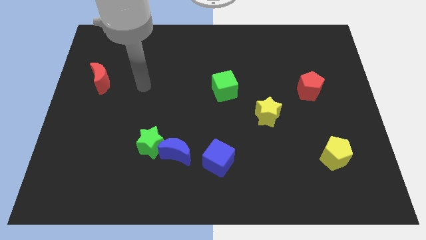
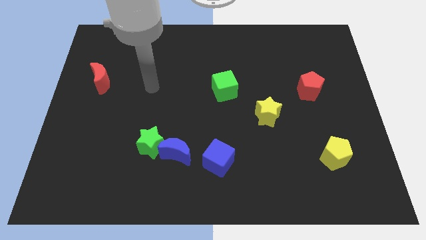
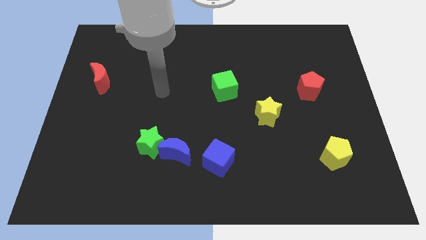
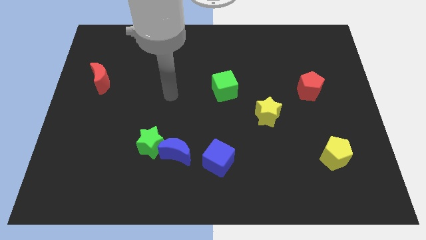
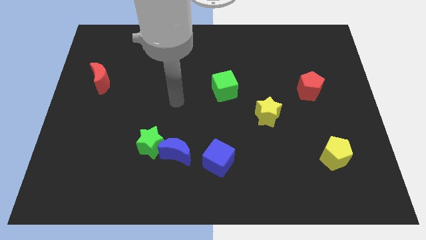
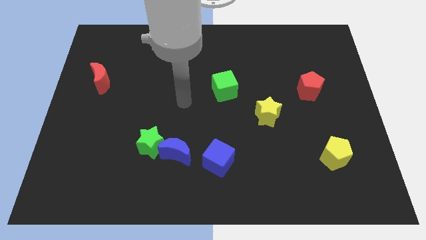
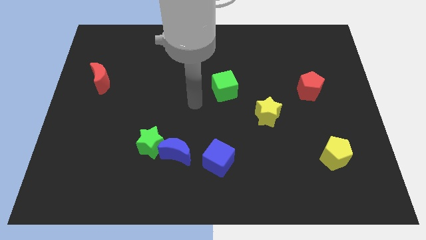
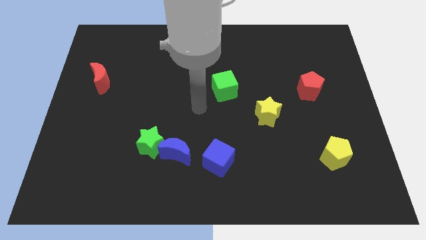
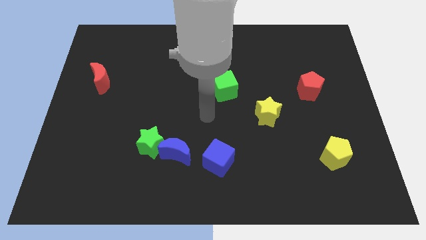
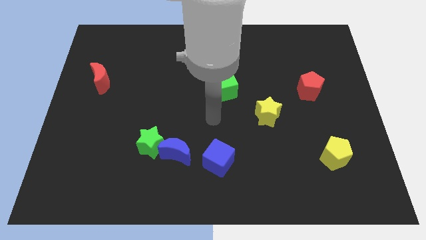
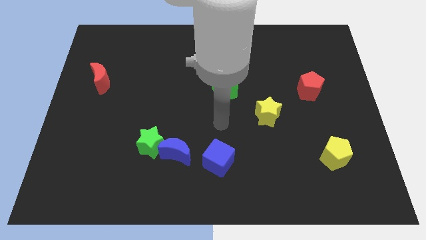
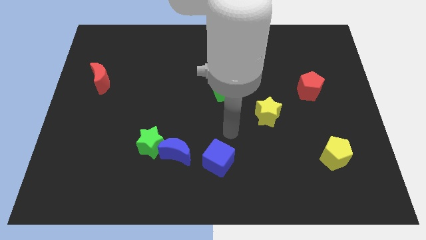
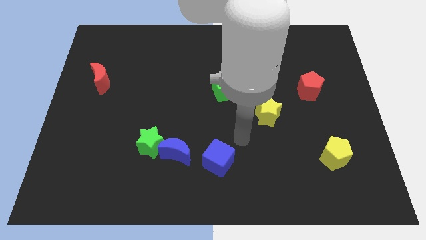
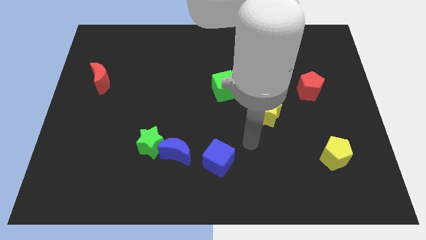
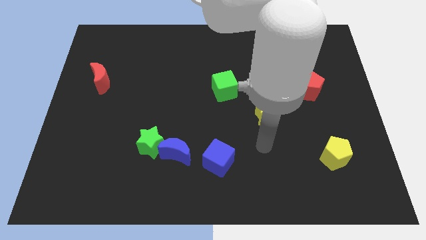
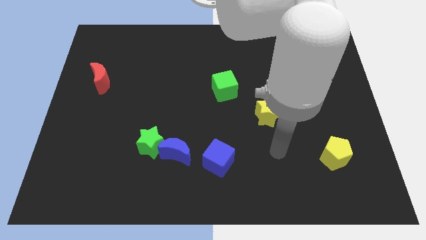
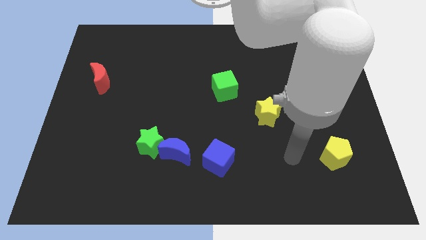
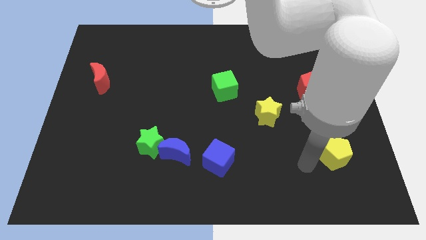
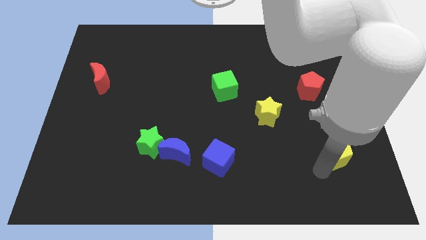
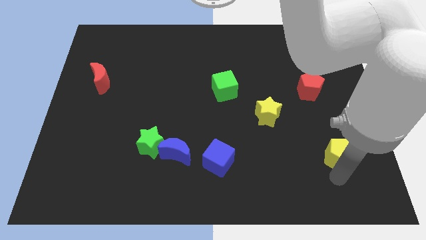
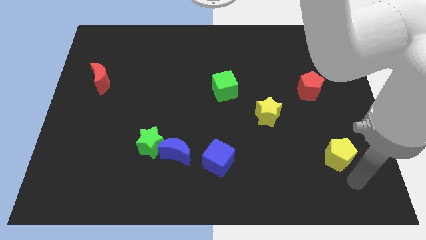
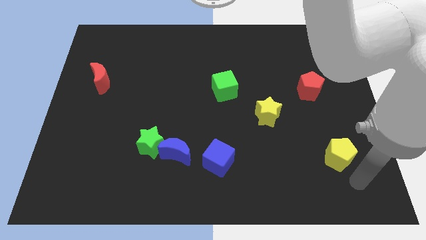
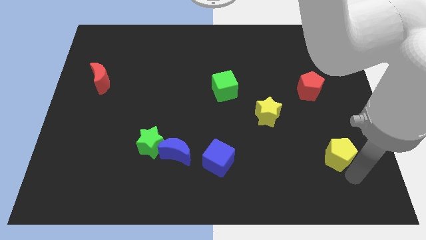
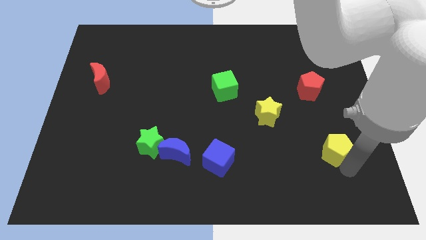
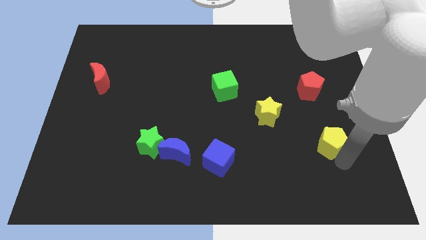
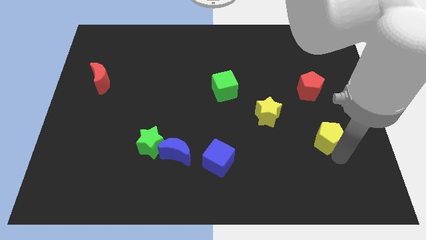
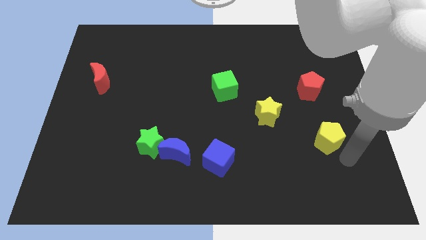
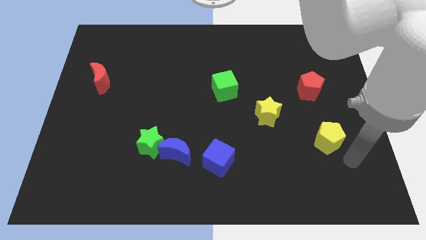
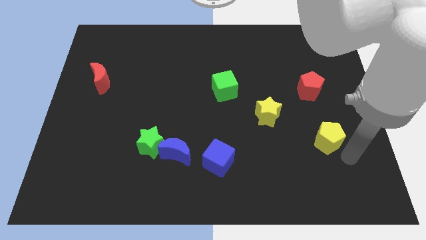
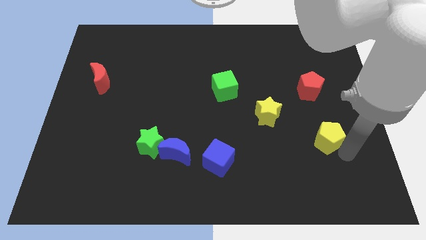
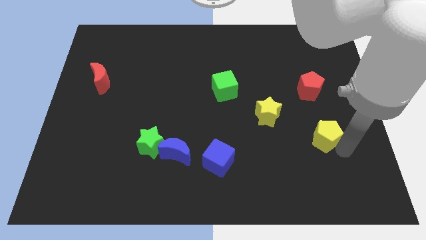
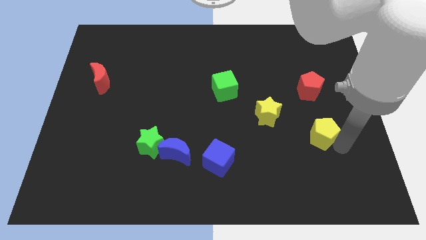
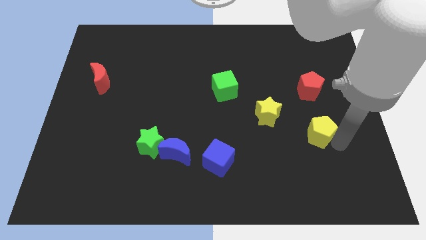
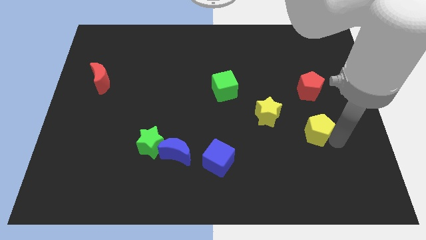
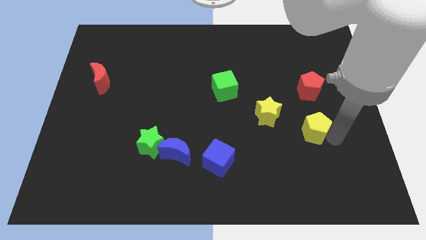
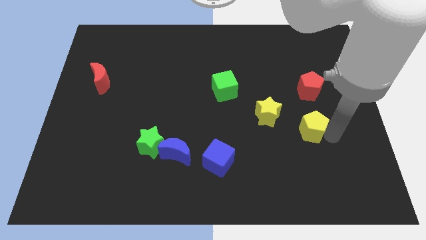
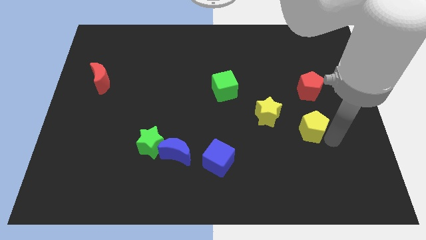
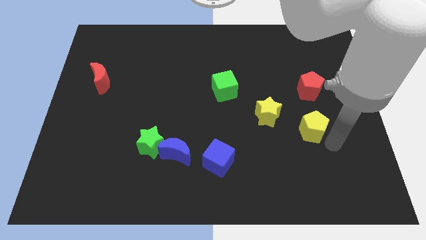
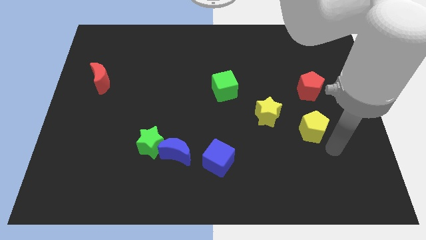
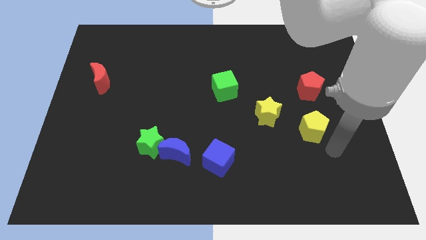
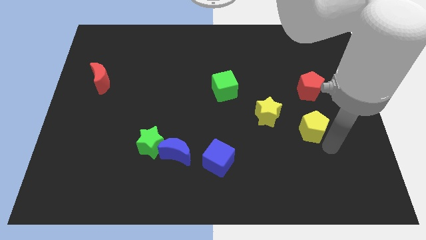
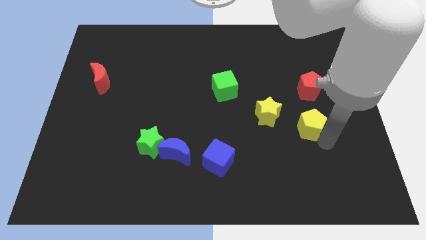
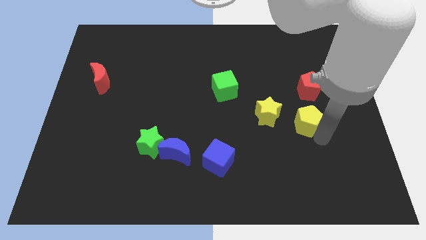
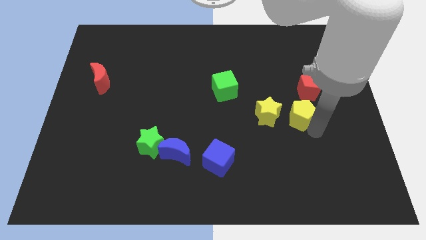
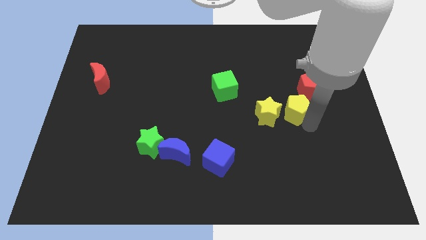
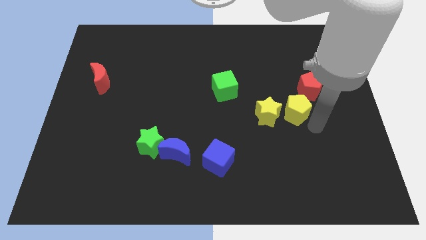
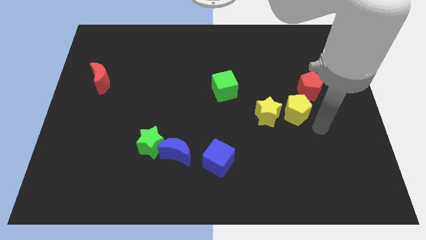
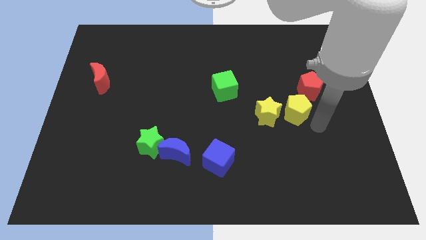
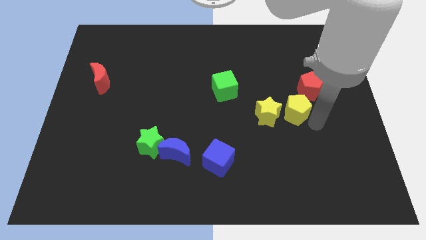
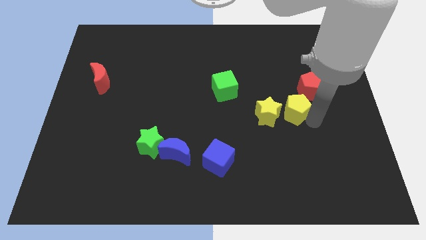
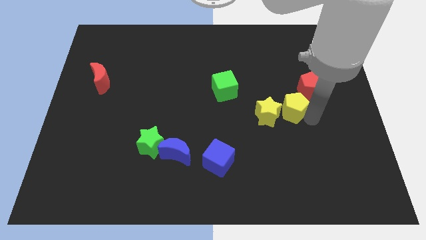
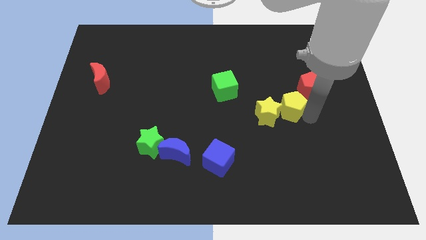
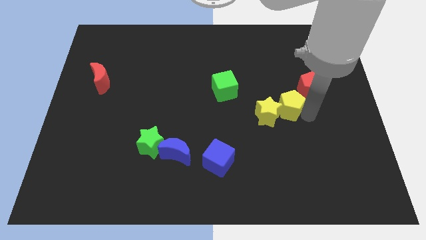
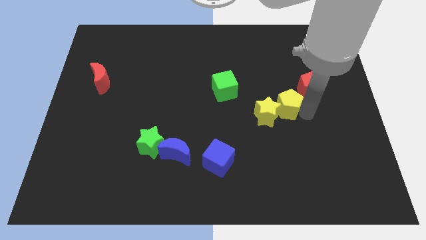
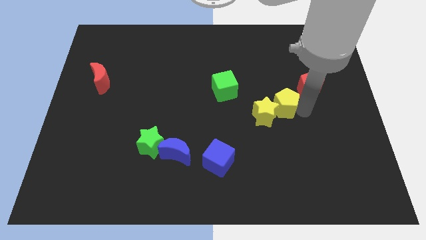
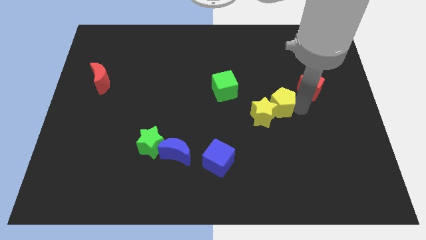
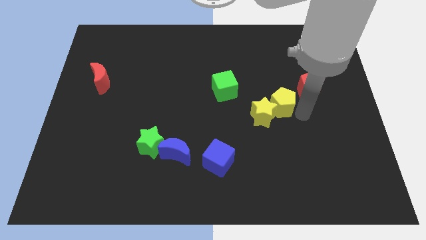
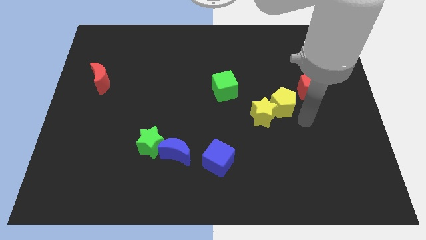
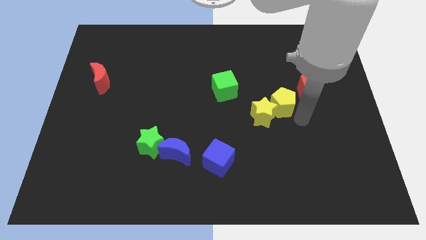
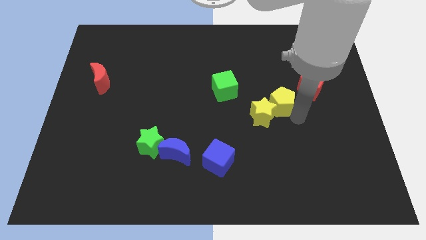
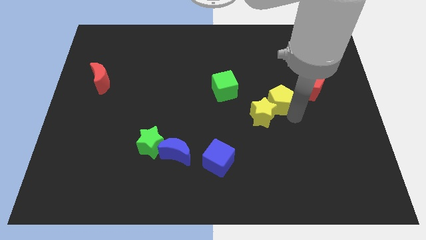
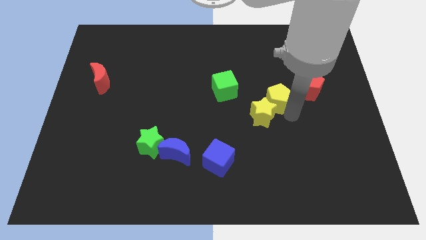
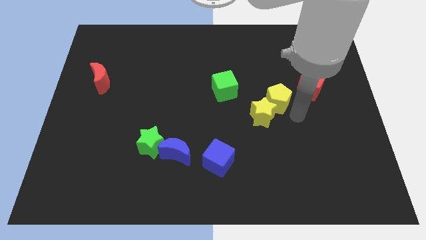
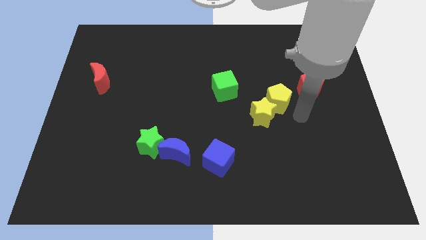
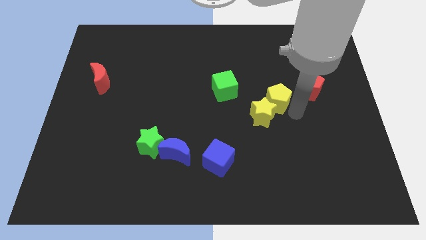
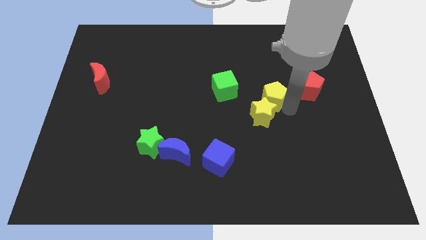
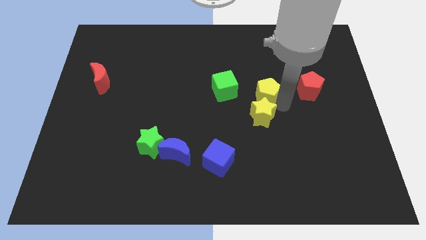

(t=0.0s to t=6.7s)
slide the yellow pentagon upwards and then to the left

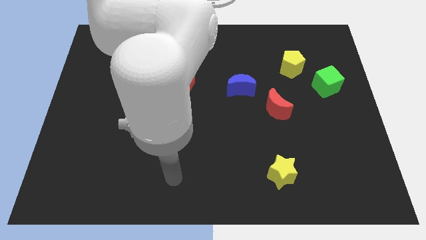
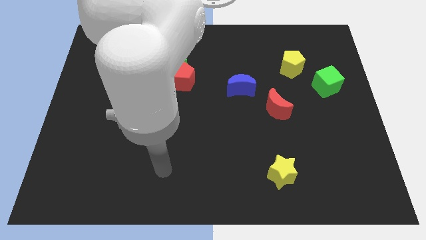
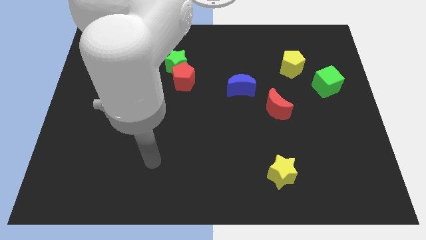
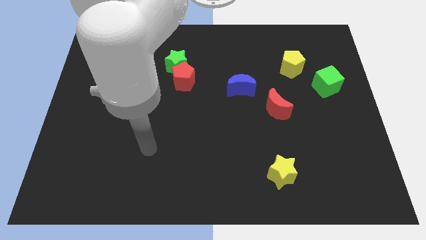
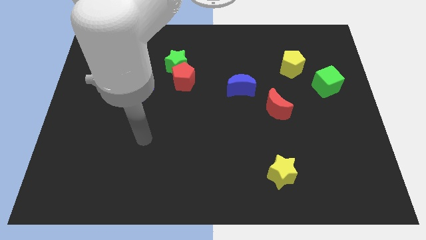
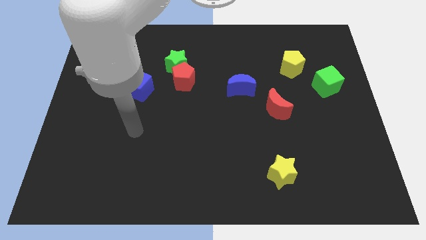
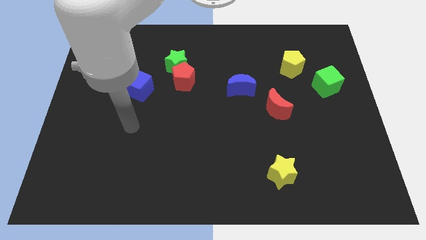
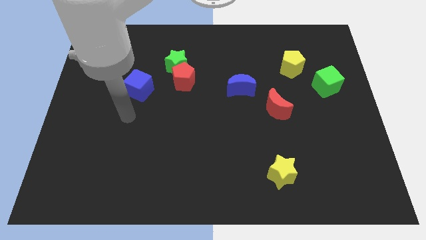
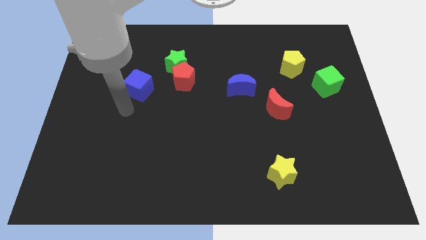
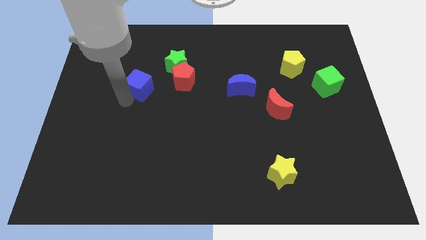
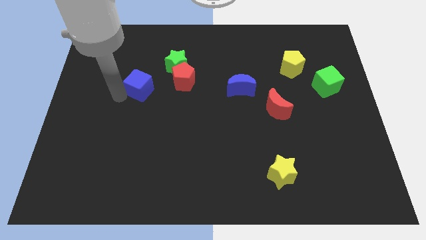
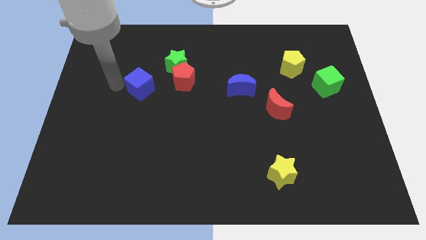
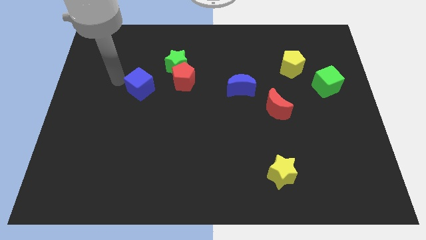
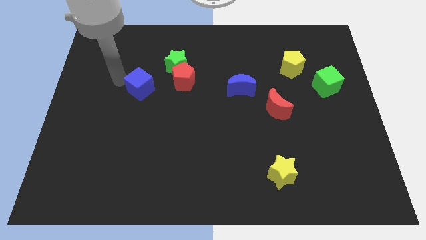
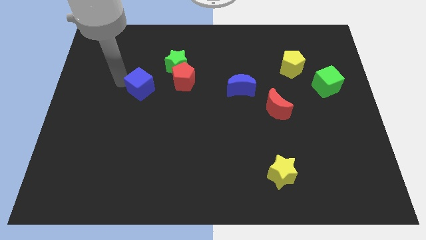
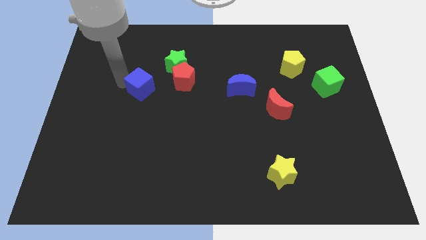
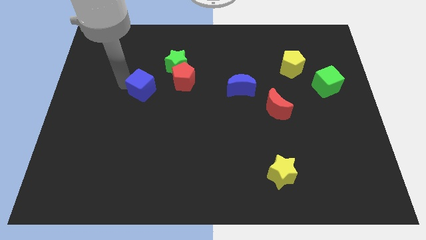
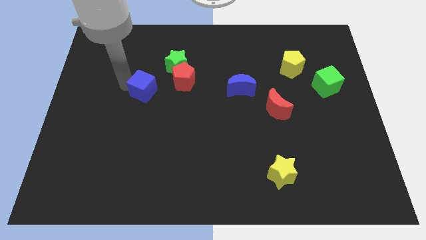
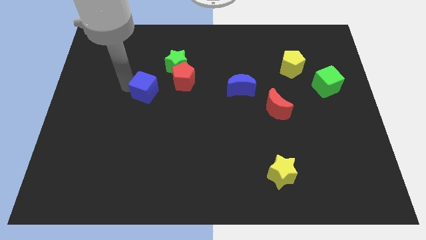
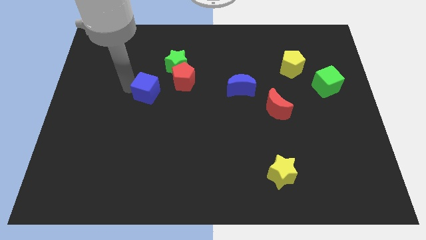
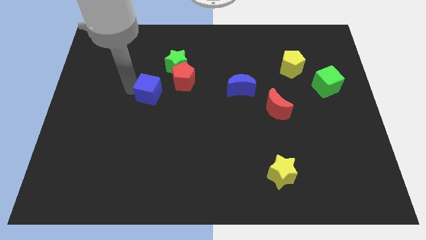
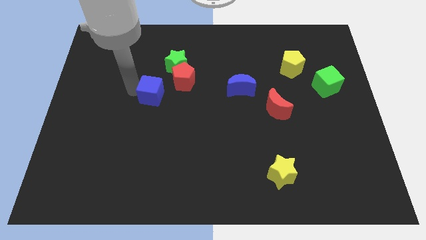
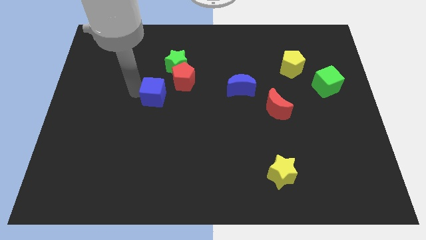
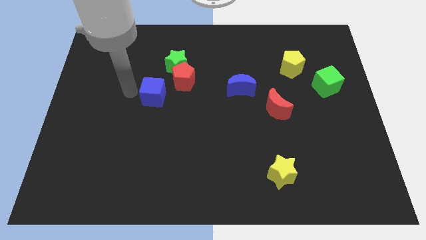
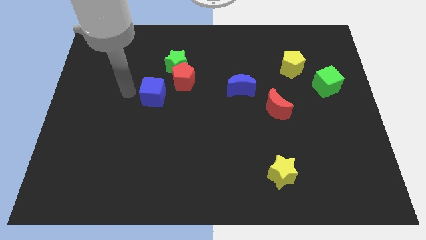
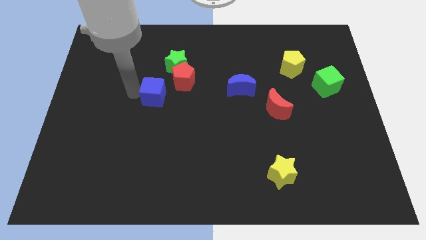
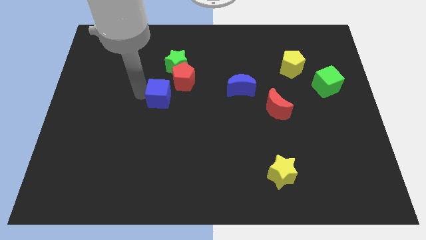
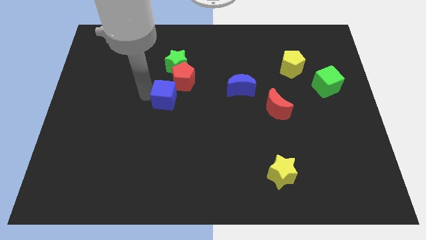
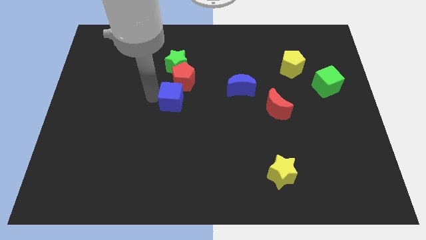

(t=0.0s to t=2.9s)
slightly push the blue cube to the right
